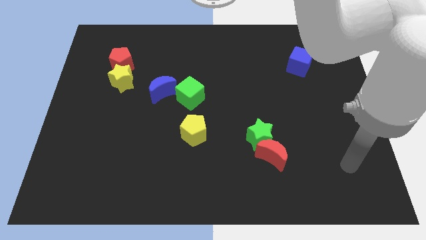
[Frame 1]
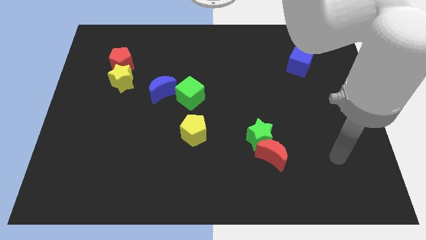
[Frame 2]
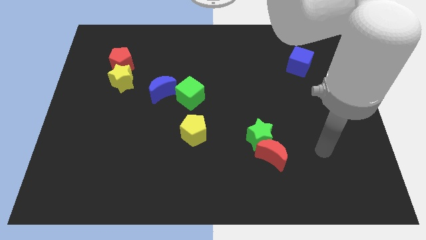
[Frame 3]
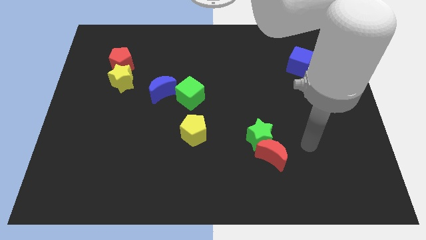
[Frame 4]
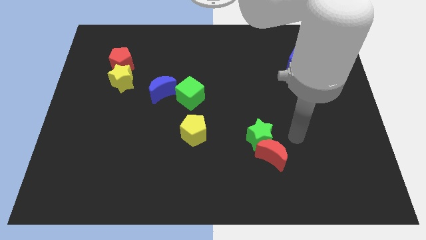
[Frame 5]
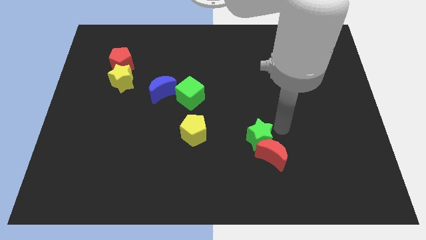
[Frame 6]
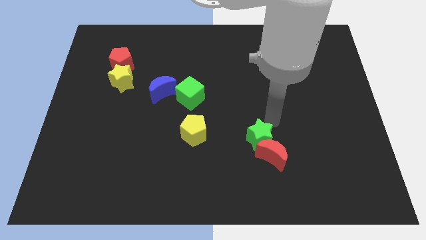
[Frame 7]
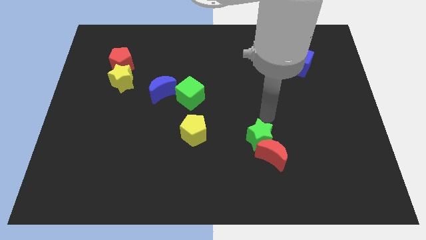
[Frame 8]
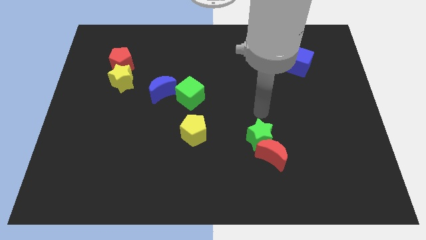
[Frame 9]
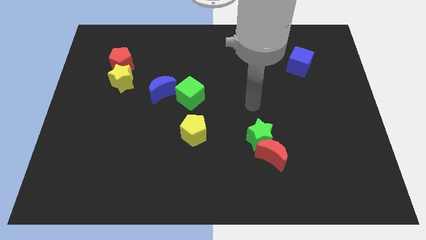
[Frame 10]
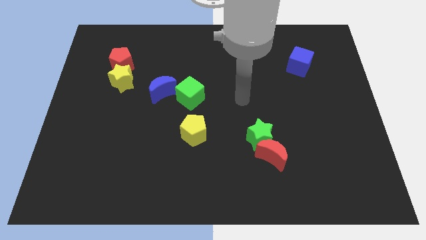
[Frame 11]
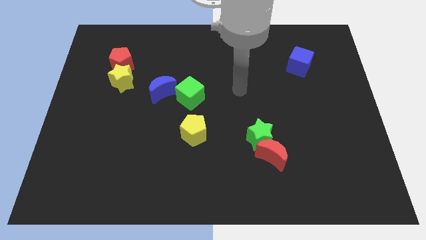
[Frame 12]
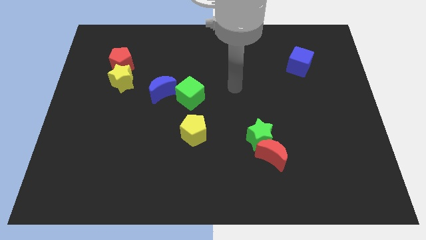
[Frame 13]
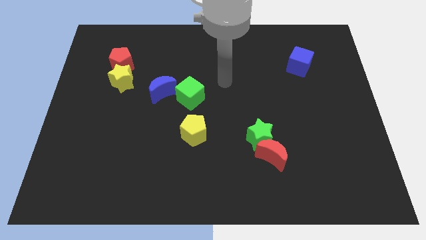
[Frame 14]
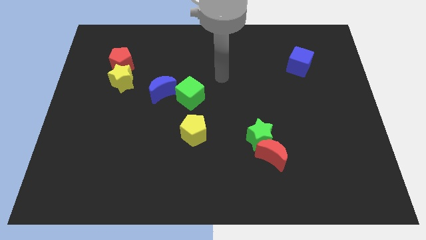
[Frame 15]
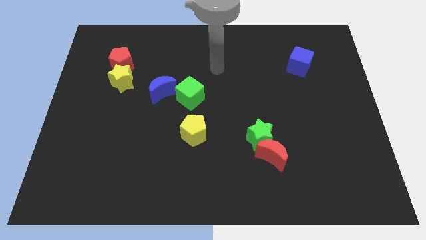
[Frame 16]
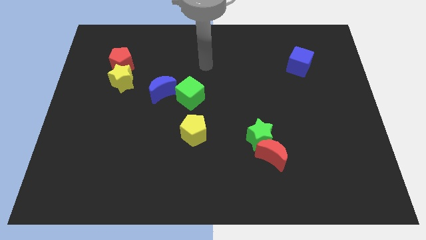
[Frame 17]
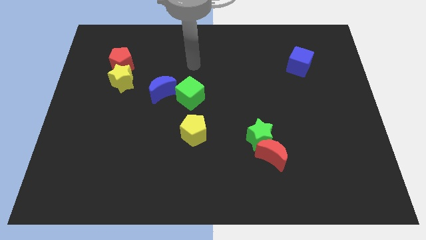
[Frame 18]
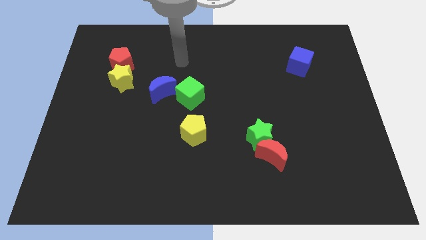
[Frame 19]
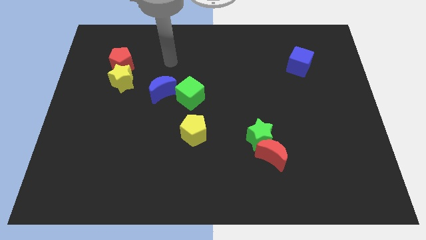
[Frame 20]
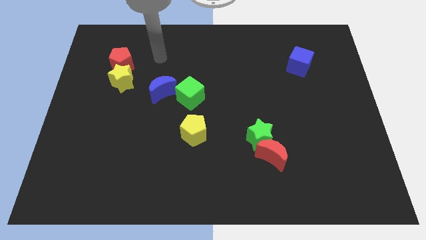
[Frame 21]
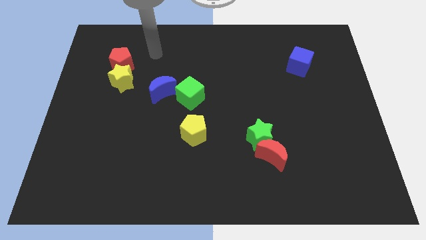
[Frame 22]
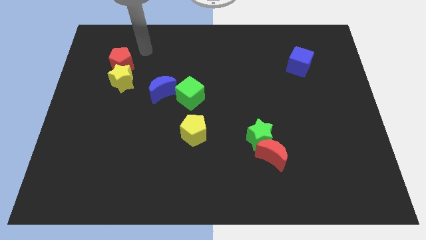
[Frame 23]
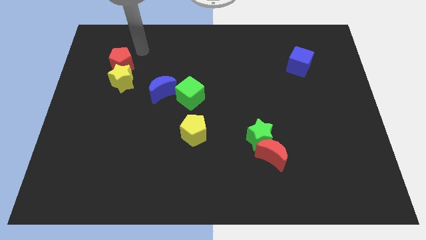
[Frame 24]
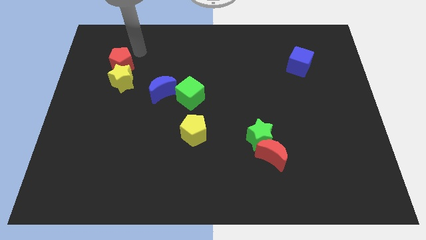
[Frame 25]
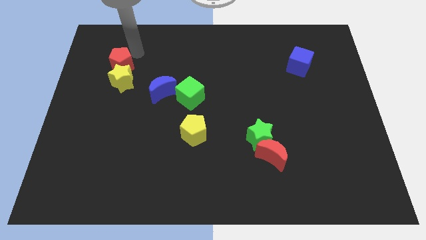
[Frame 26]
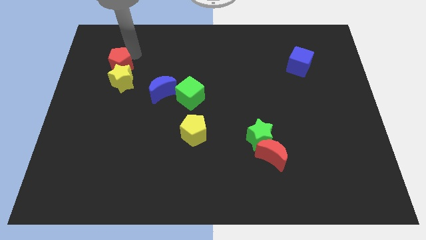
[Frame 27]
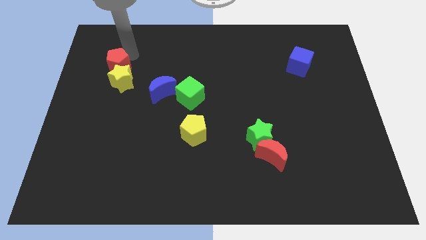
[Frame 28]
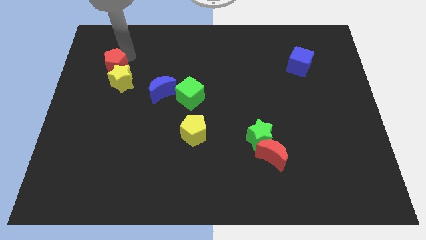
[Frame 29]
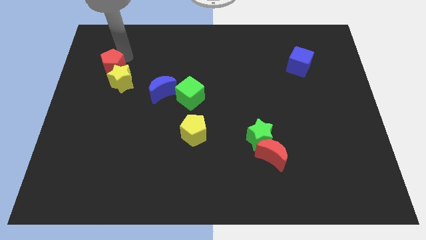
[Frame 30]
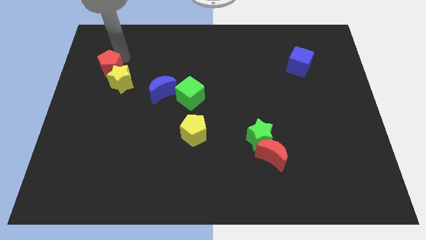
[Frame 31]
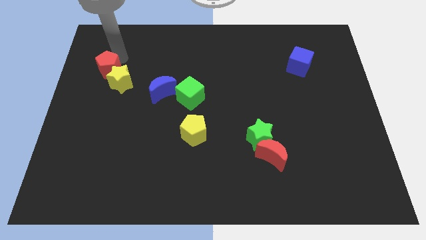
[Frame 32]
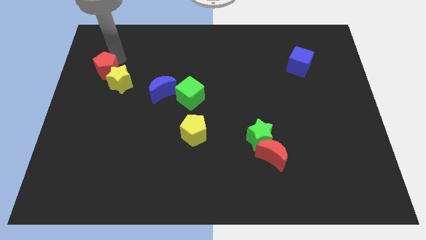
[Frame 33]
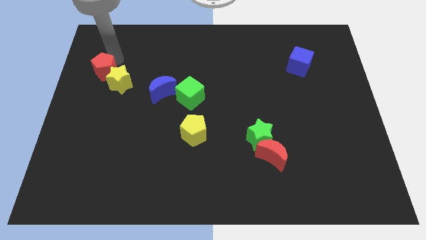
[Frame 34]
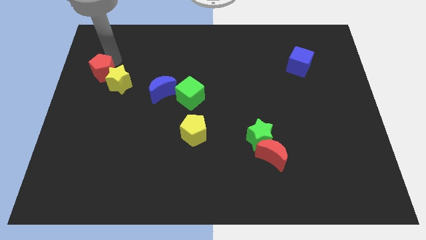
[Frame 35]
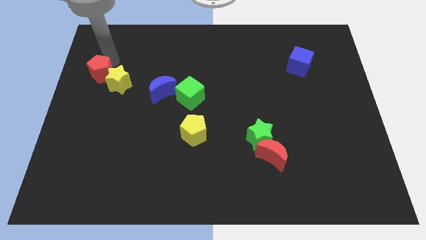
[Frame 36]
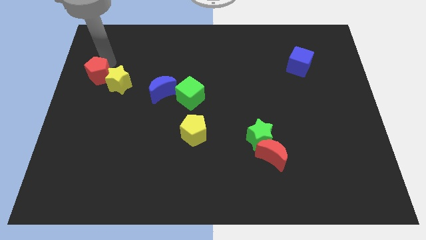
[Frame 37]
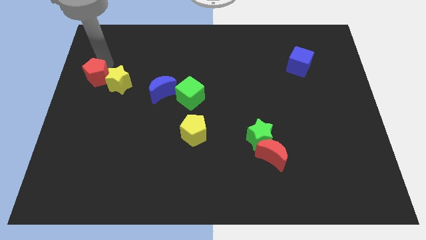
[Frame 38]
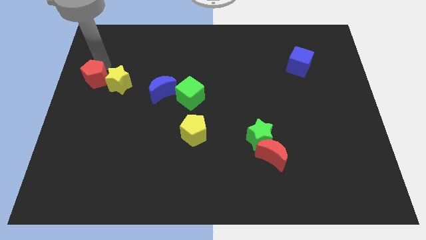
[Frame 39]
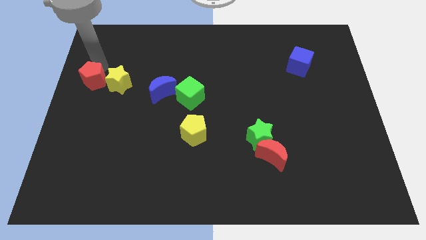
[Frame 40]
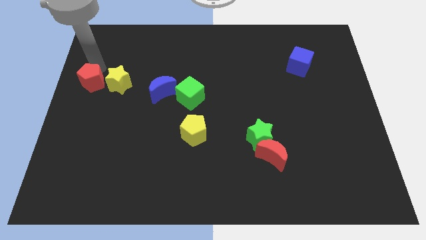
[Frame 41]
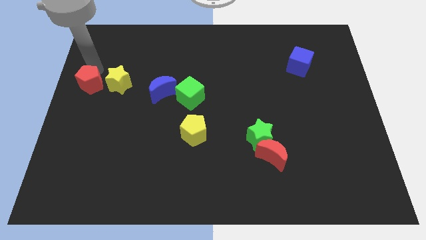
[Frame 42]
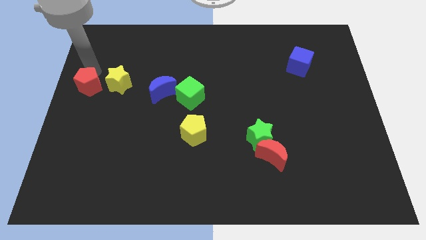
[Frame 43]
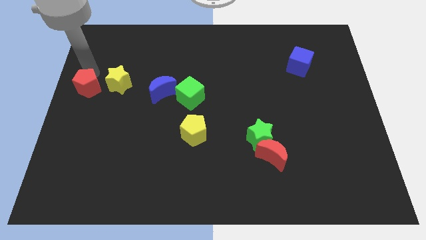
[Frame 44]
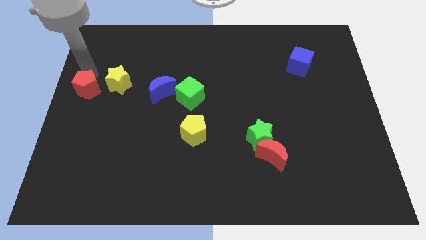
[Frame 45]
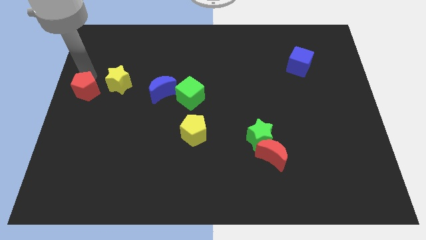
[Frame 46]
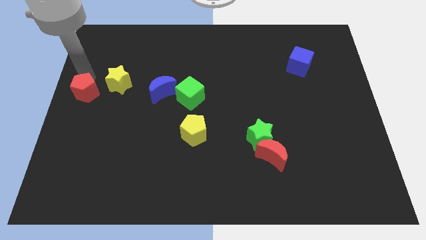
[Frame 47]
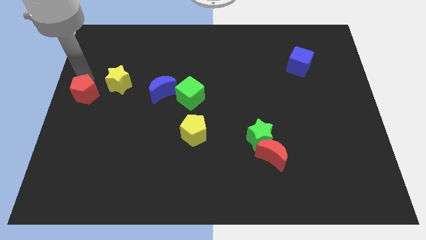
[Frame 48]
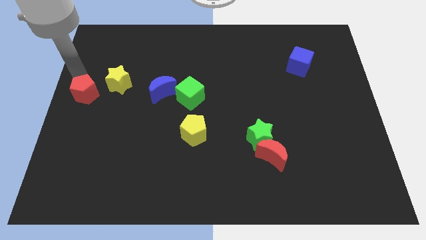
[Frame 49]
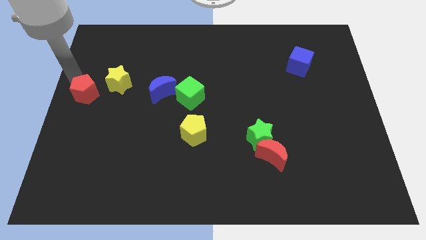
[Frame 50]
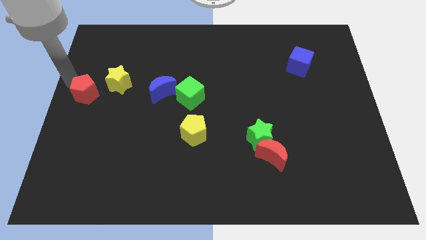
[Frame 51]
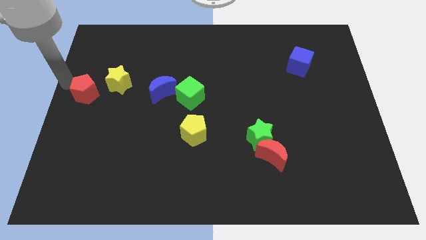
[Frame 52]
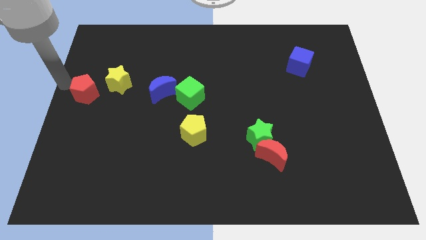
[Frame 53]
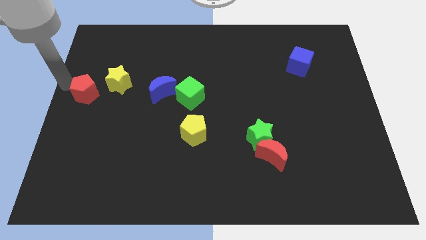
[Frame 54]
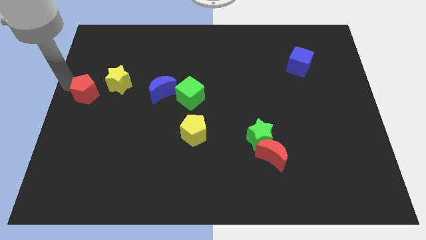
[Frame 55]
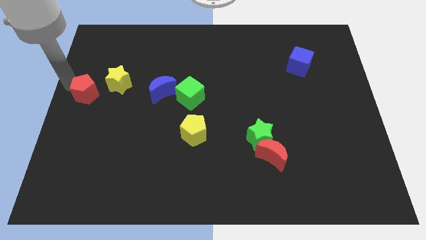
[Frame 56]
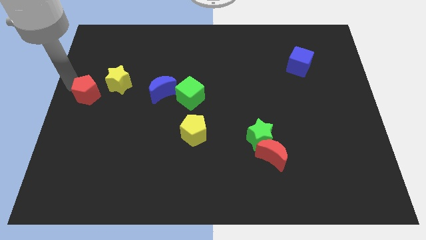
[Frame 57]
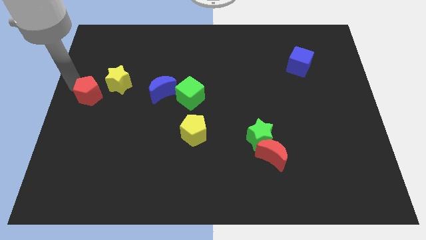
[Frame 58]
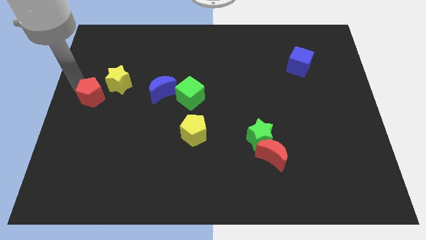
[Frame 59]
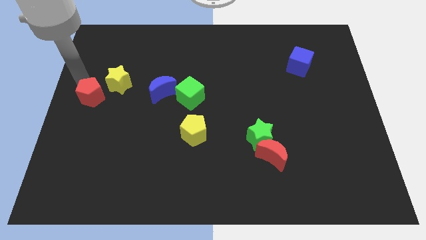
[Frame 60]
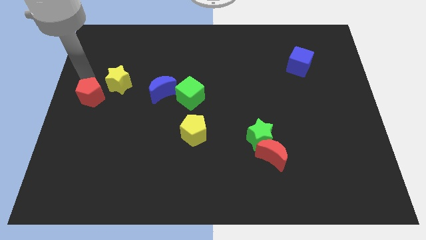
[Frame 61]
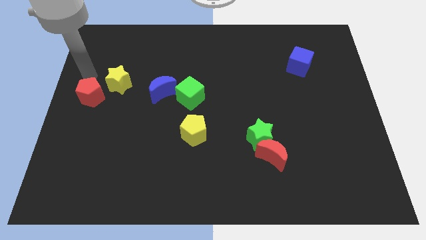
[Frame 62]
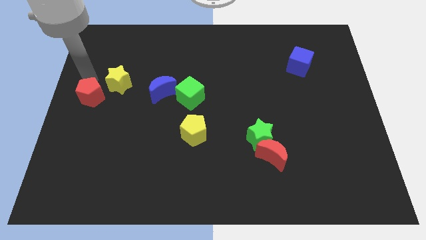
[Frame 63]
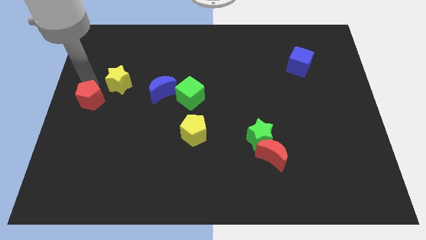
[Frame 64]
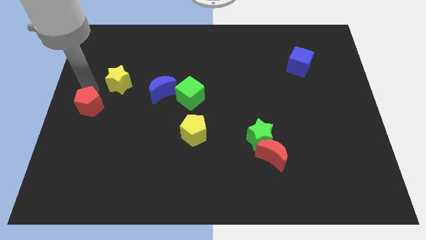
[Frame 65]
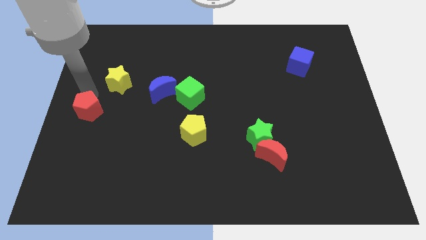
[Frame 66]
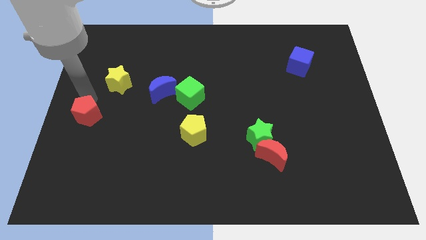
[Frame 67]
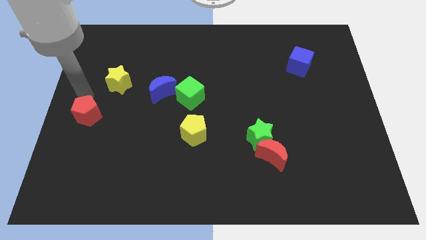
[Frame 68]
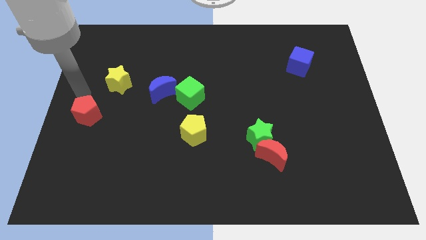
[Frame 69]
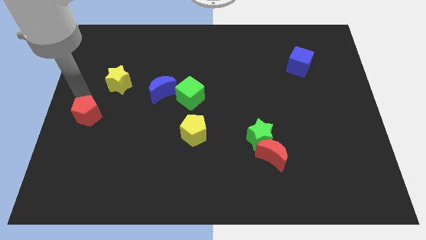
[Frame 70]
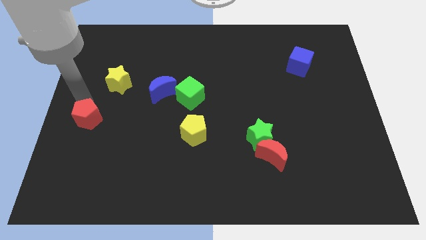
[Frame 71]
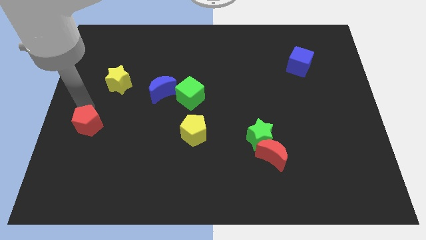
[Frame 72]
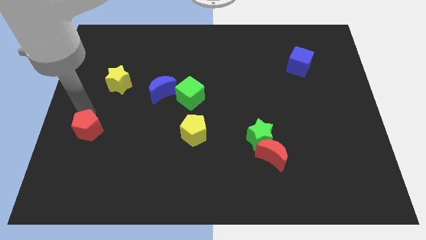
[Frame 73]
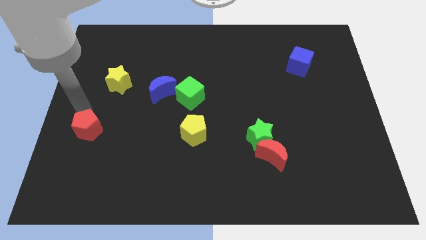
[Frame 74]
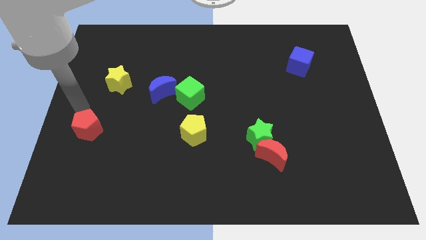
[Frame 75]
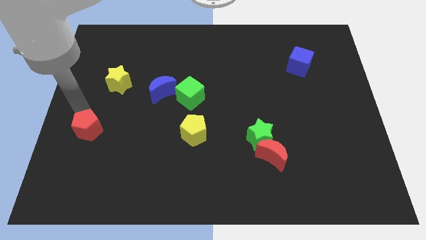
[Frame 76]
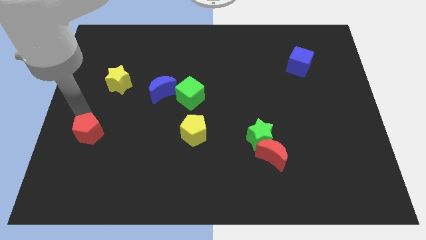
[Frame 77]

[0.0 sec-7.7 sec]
slide the red pentagon down
